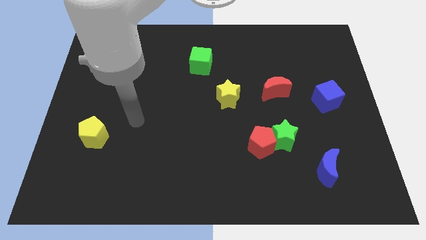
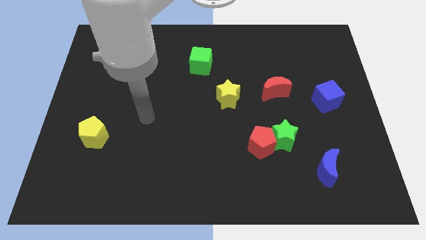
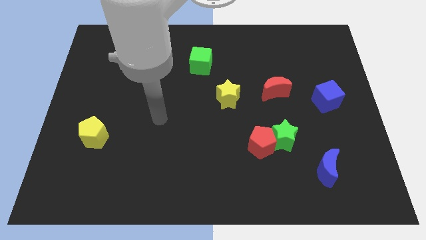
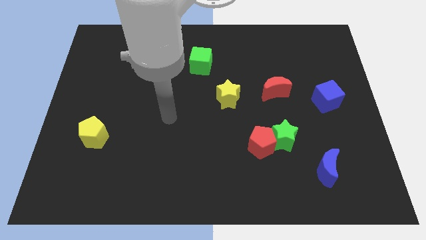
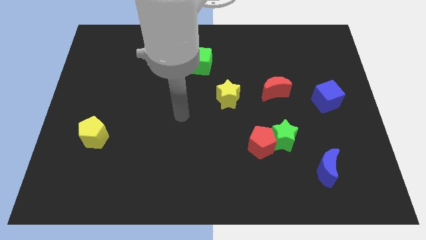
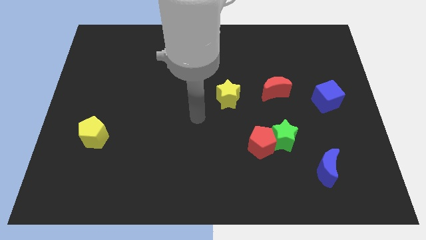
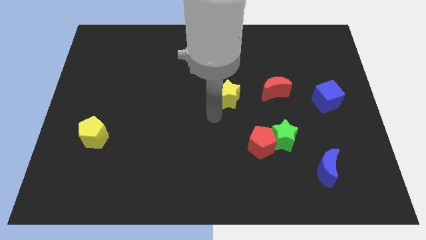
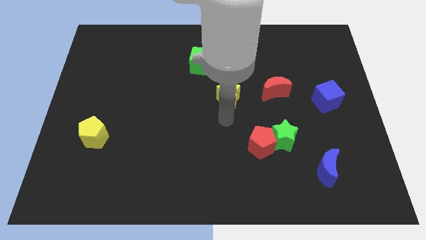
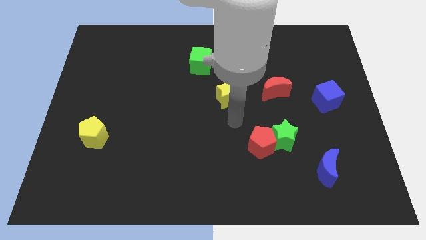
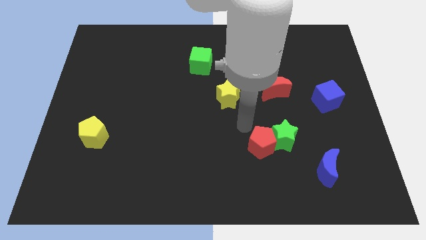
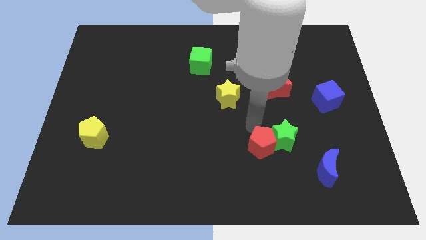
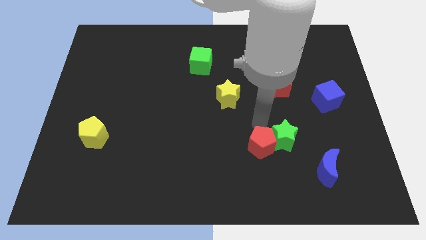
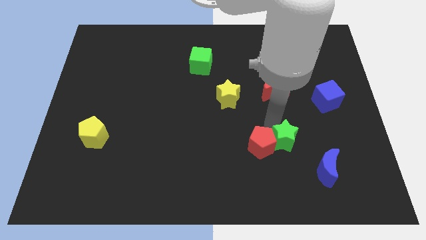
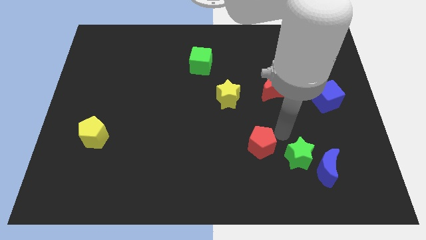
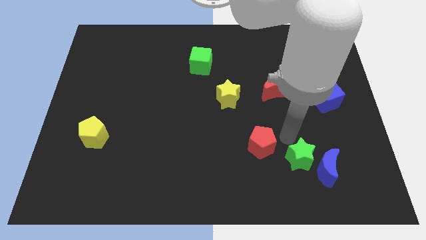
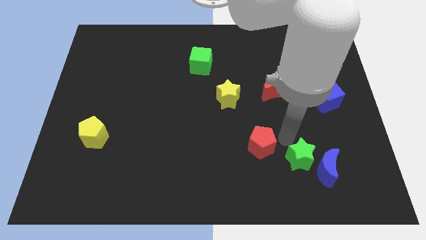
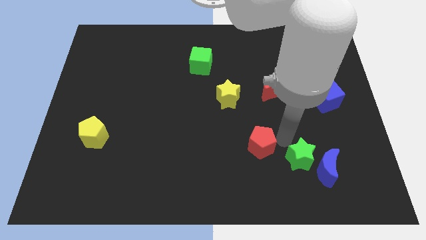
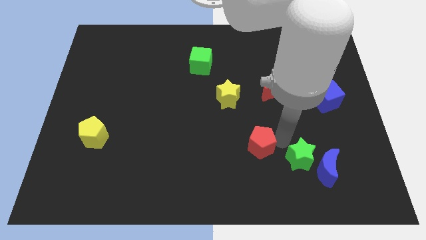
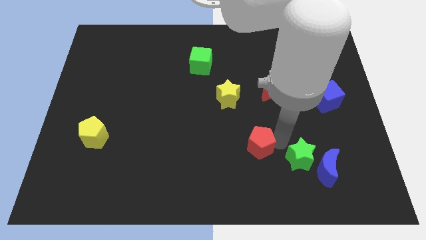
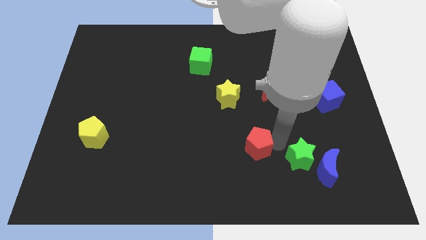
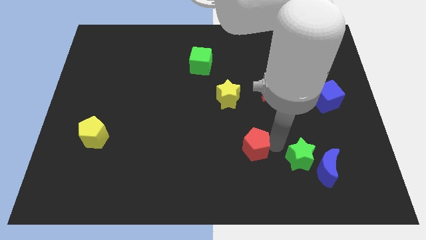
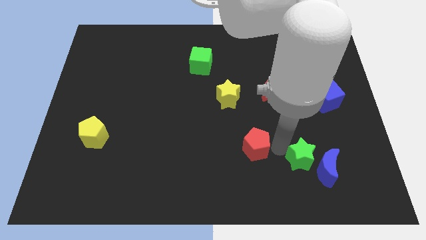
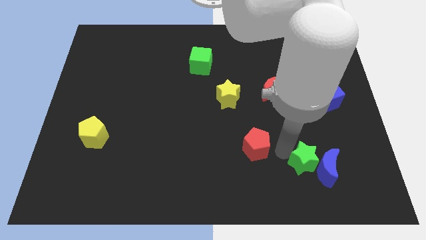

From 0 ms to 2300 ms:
separate the red pentagon from the green star

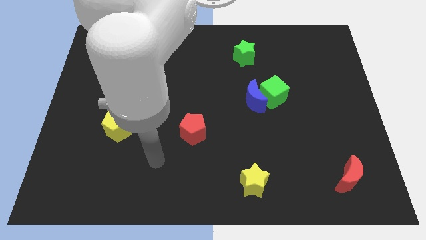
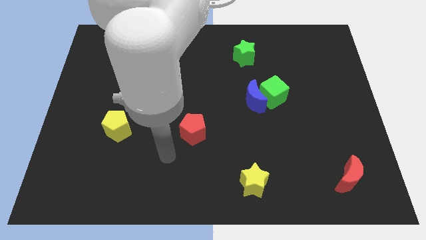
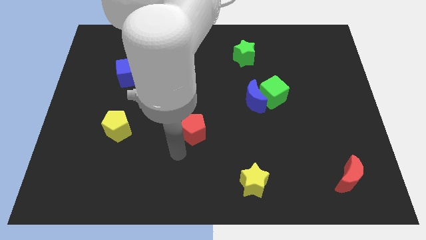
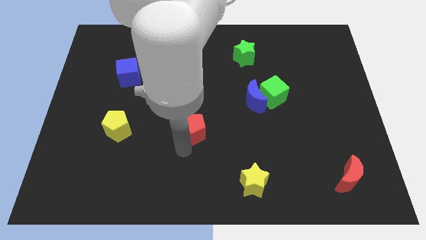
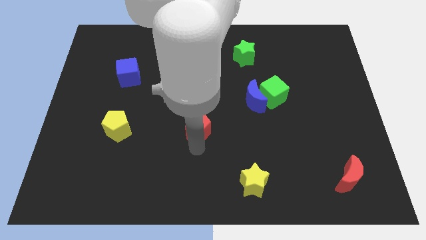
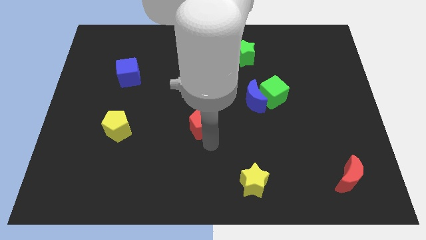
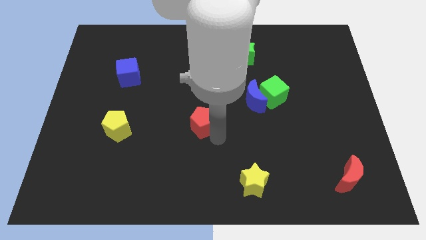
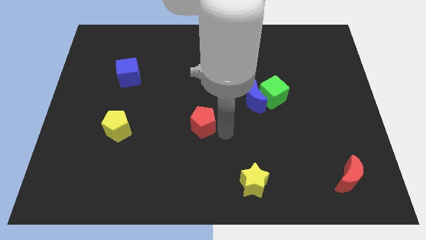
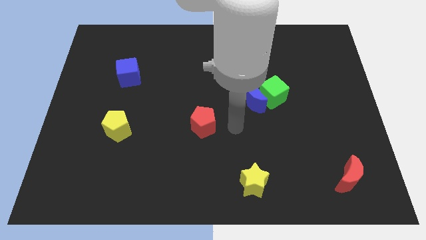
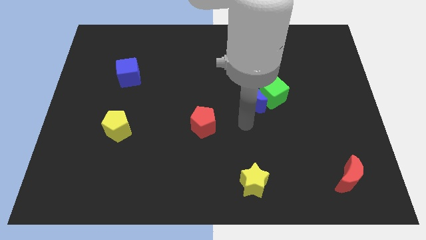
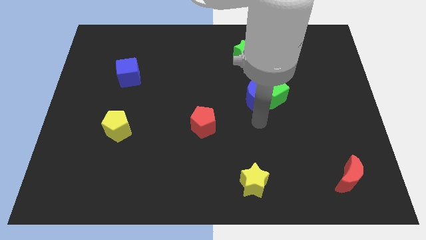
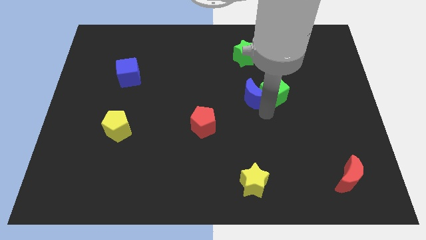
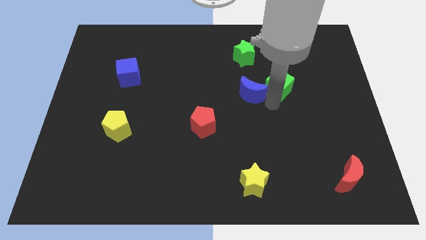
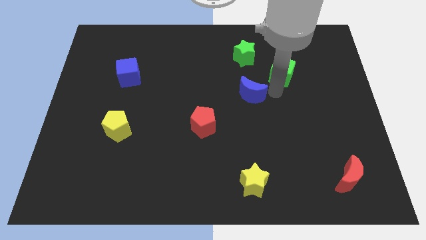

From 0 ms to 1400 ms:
separate the blue moon from the green cube

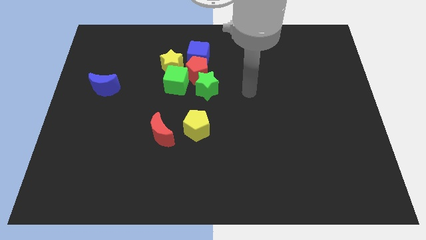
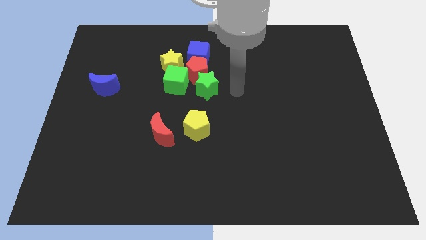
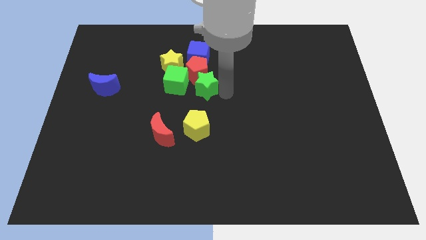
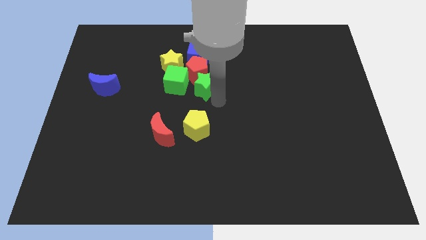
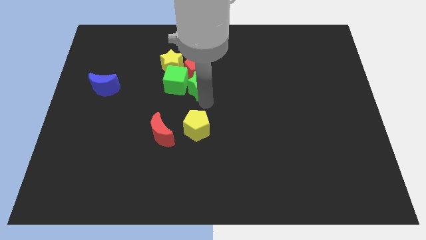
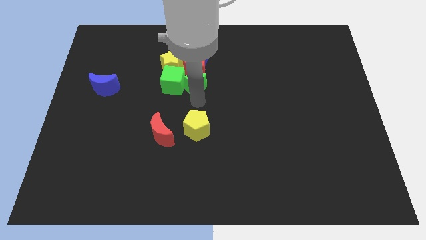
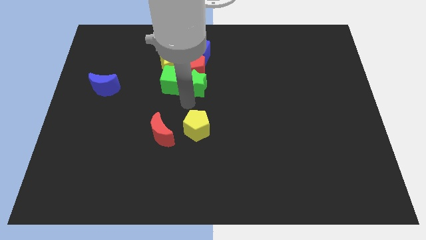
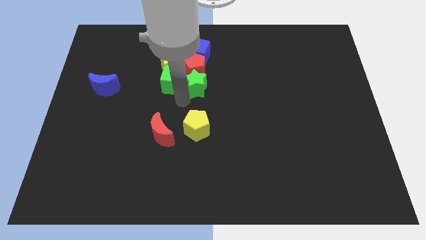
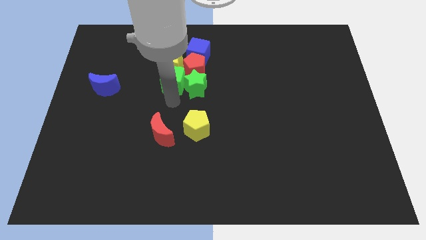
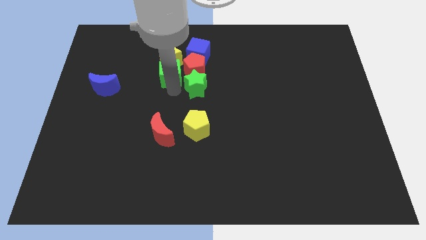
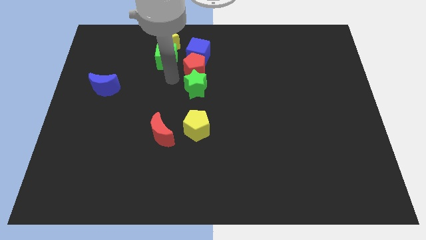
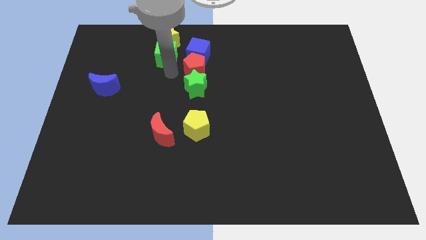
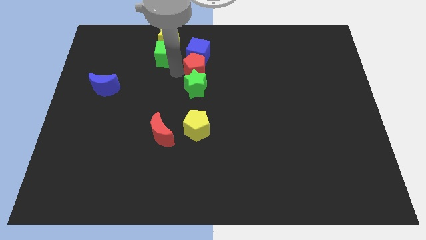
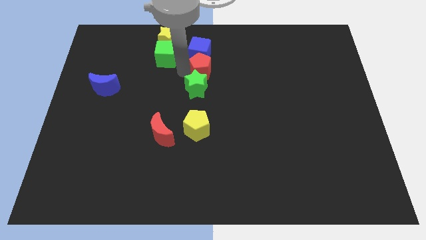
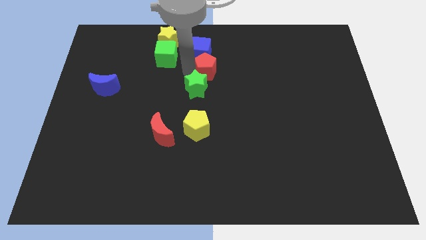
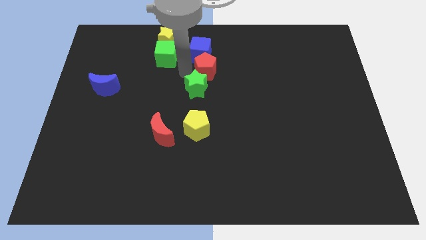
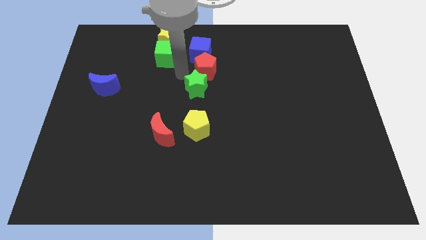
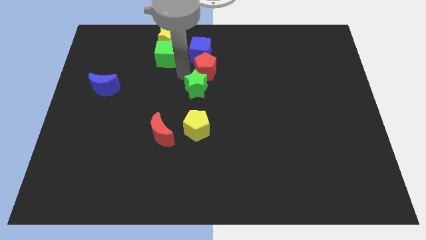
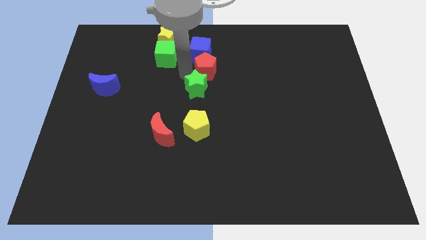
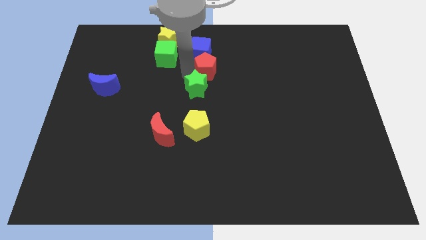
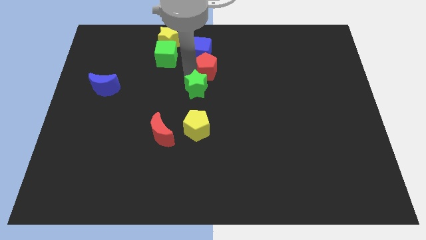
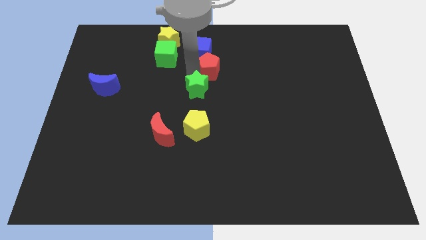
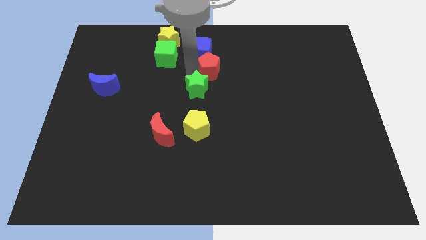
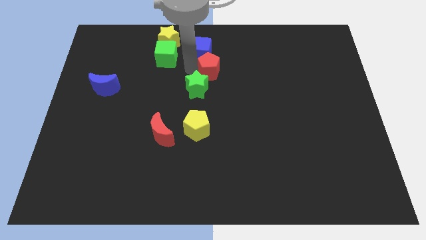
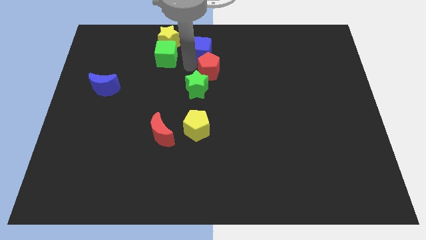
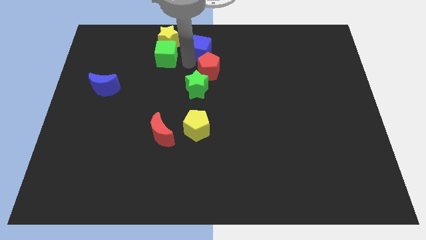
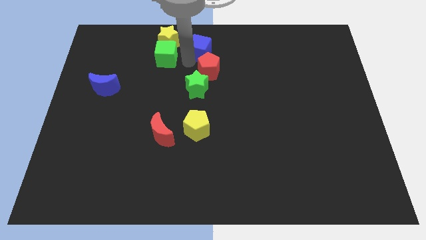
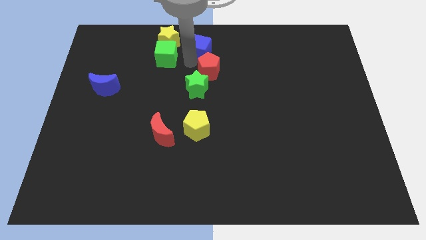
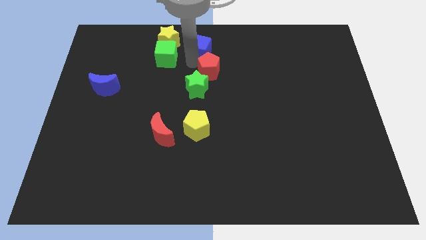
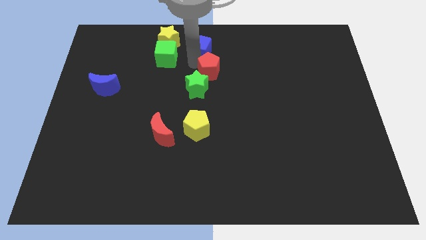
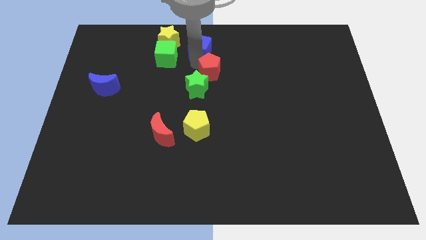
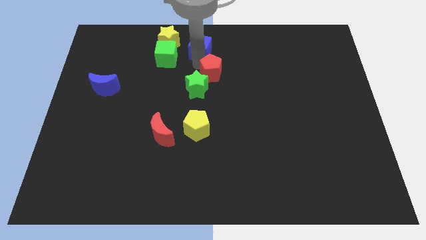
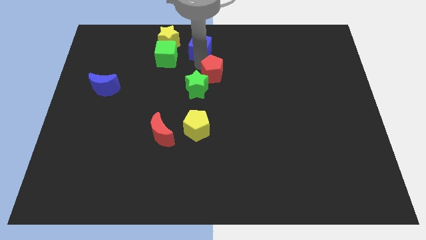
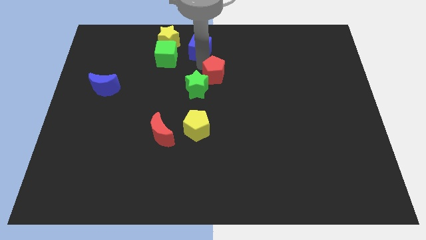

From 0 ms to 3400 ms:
move the red pentagon away from the clump

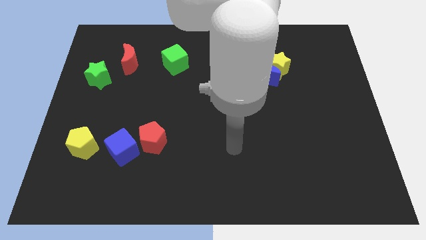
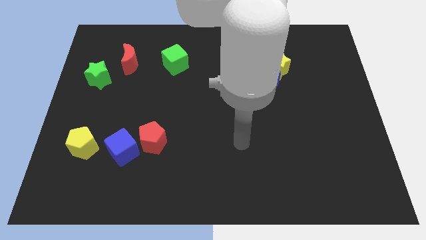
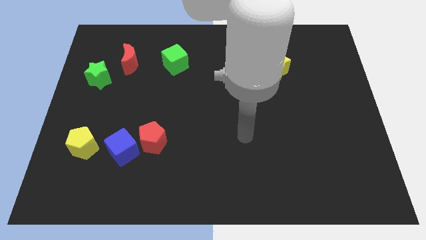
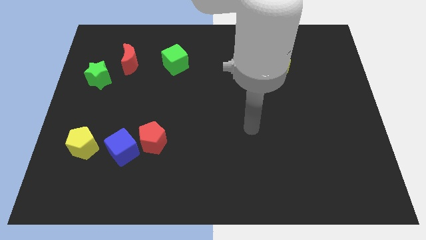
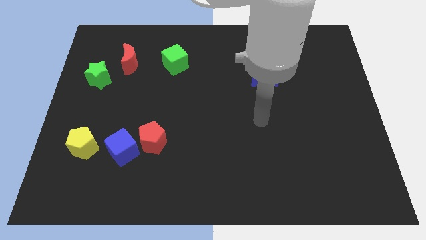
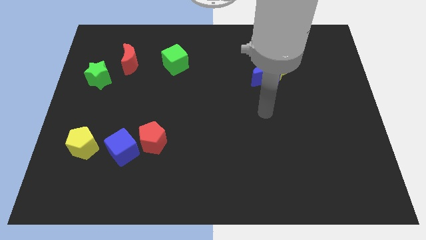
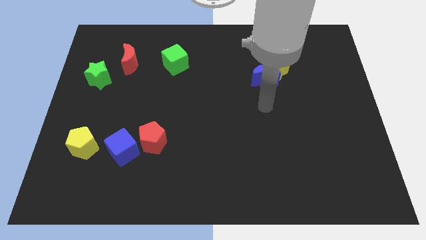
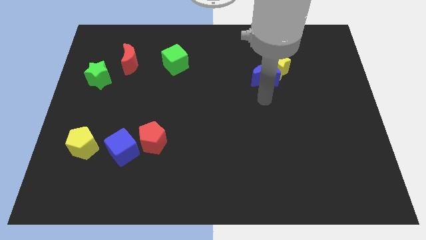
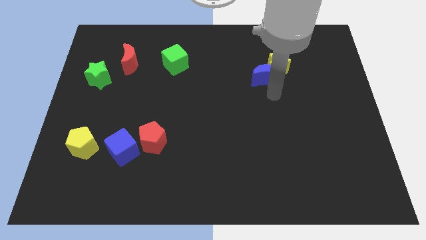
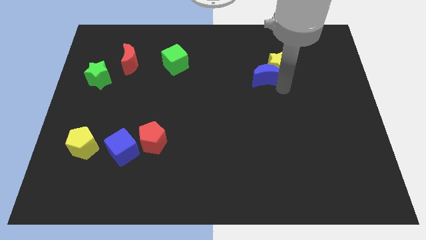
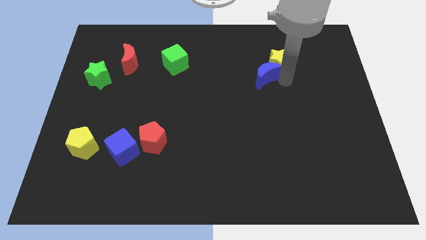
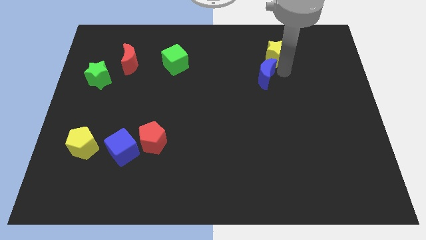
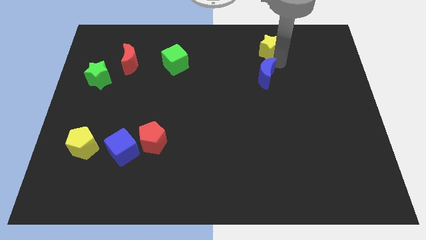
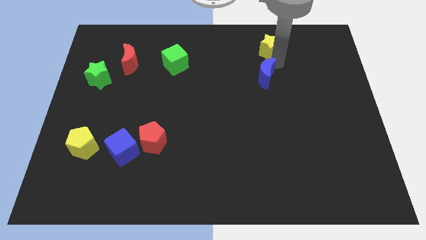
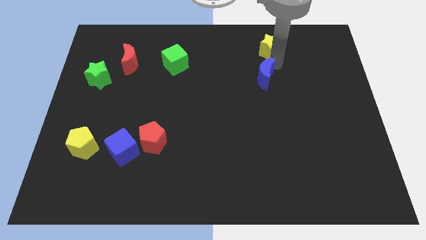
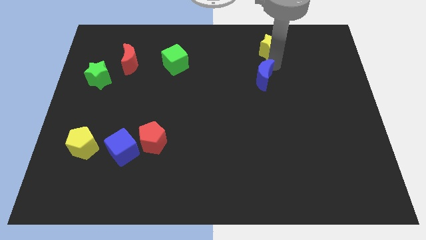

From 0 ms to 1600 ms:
separate the blue moon from the yellow star

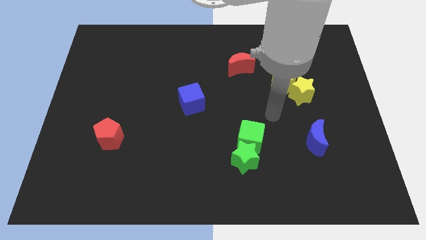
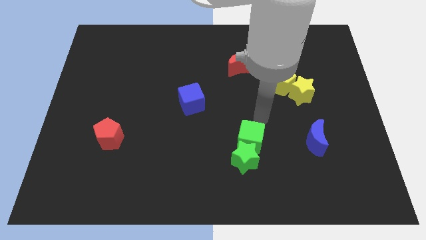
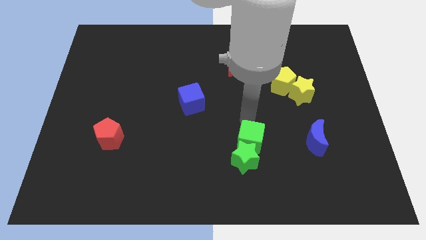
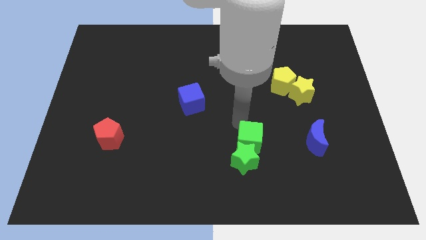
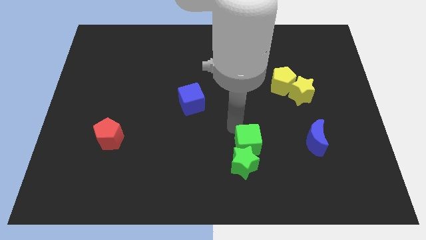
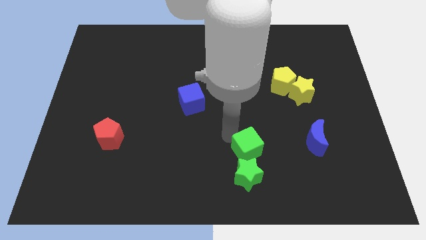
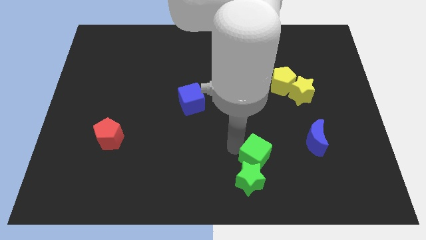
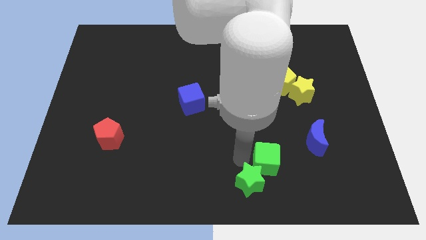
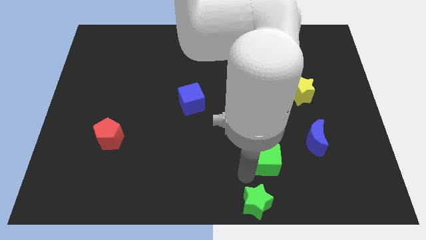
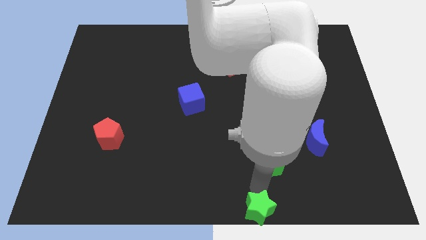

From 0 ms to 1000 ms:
pull the green cube apart from the green star
